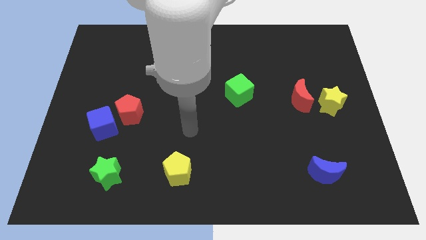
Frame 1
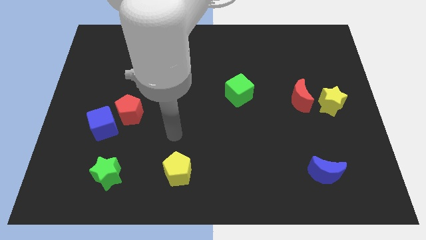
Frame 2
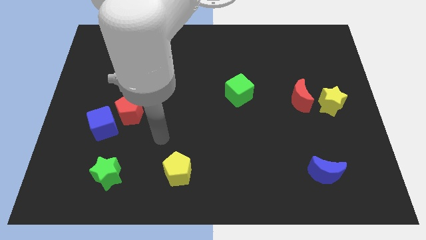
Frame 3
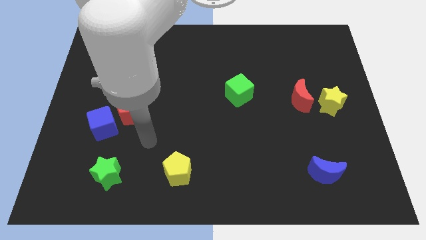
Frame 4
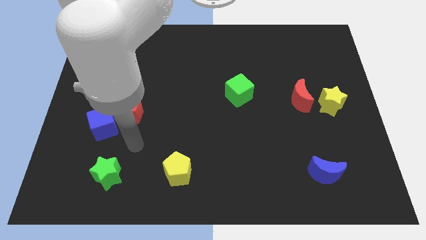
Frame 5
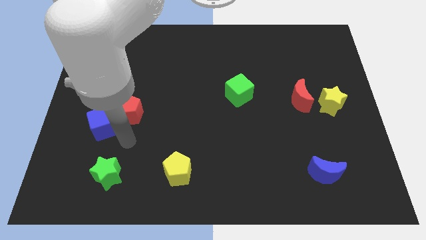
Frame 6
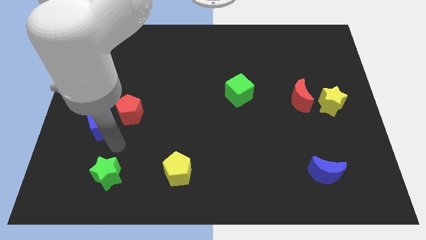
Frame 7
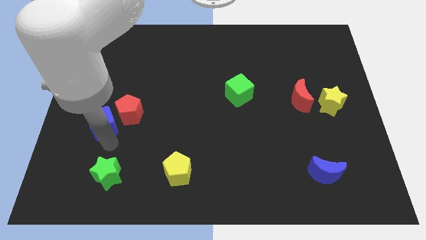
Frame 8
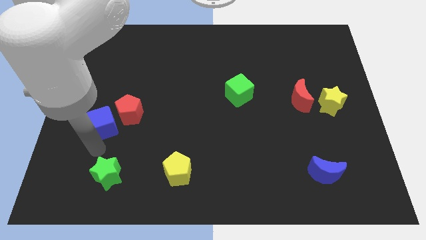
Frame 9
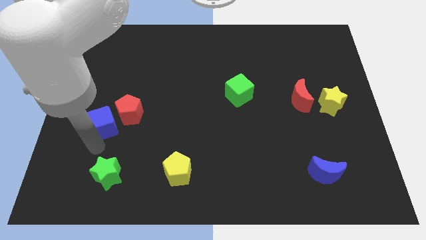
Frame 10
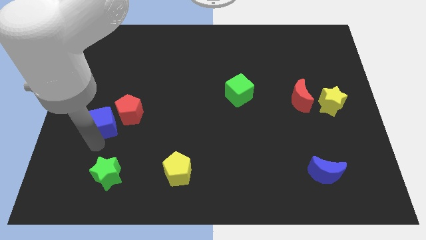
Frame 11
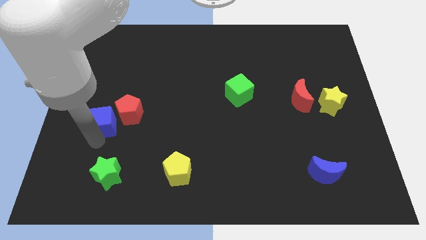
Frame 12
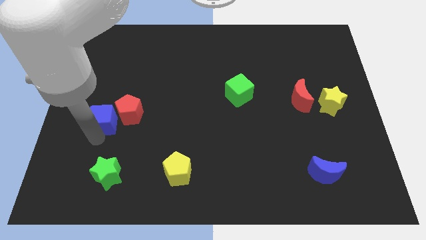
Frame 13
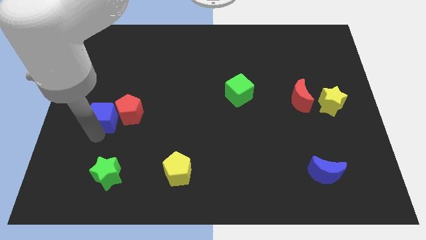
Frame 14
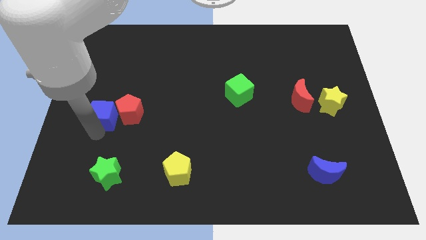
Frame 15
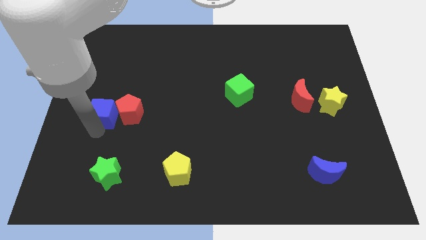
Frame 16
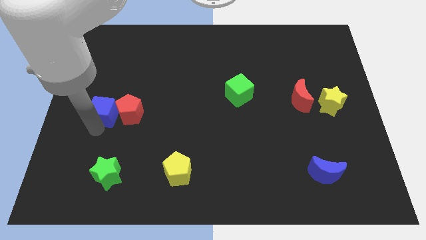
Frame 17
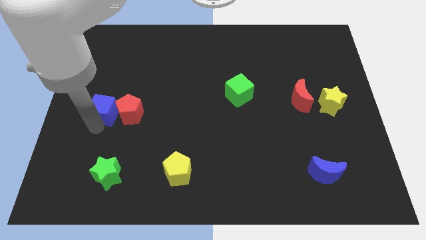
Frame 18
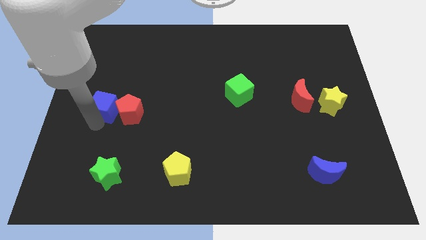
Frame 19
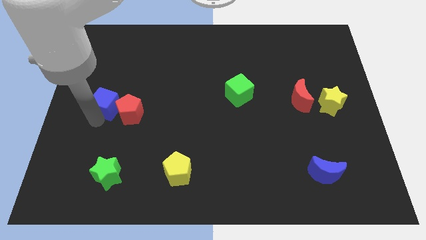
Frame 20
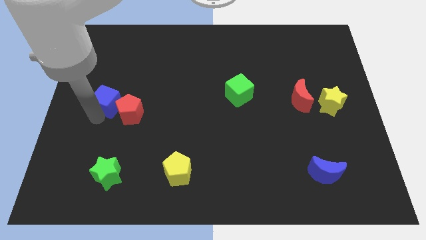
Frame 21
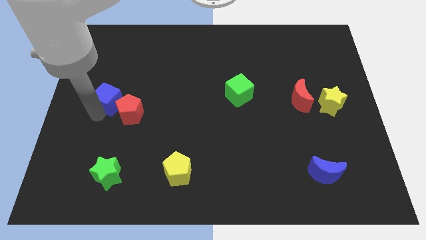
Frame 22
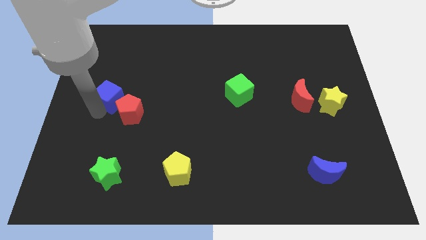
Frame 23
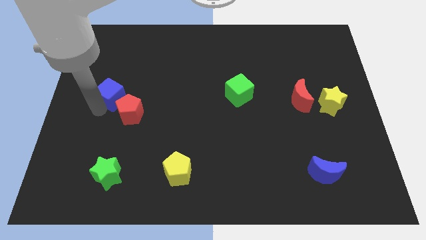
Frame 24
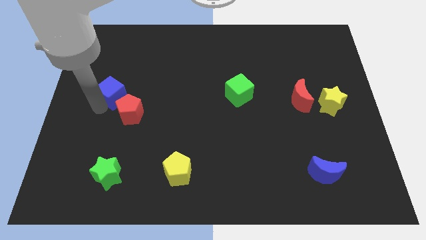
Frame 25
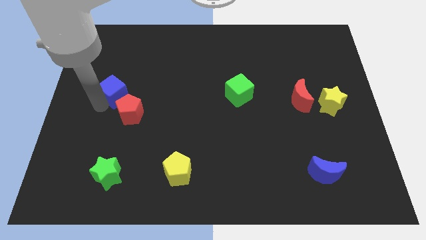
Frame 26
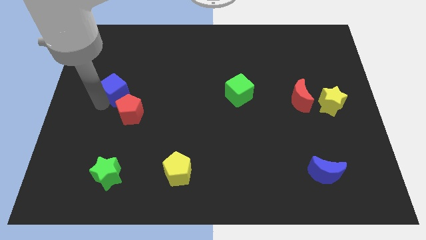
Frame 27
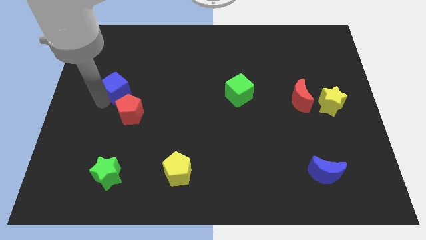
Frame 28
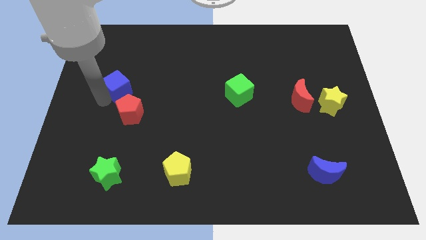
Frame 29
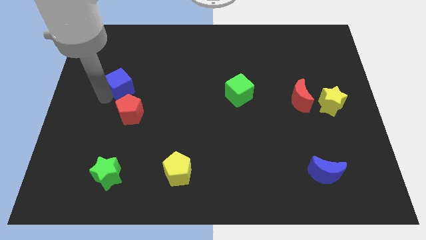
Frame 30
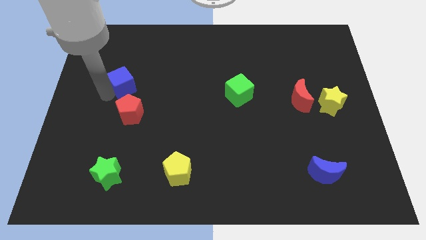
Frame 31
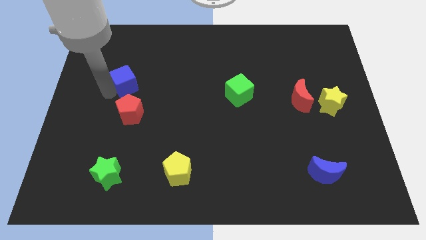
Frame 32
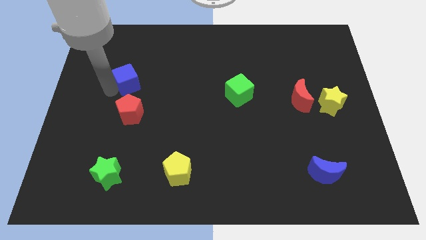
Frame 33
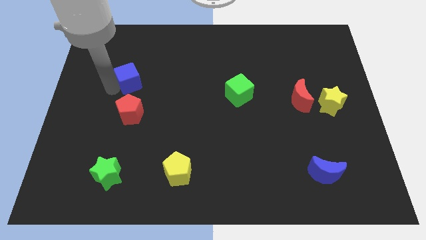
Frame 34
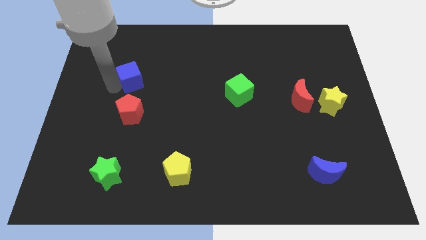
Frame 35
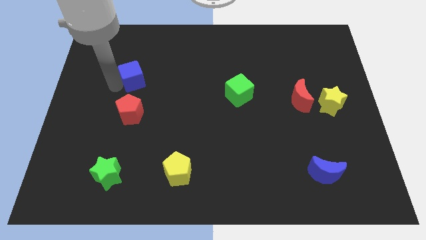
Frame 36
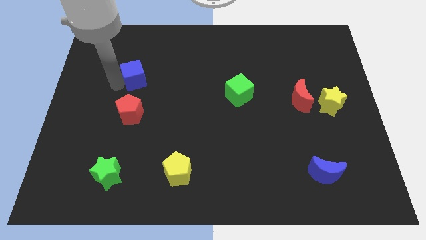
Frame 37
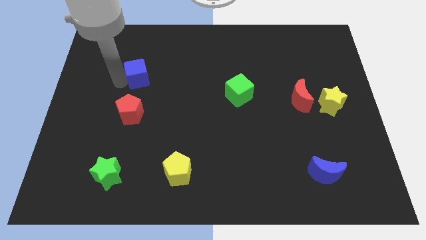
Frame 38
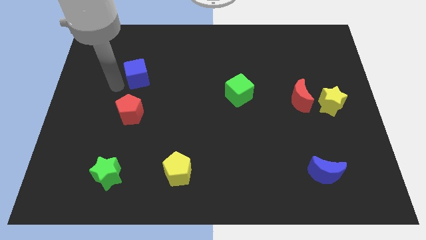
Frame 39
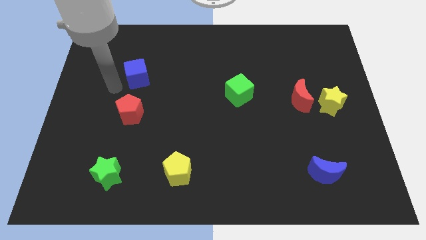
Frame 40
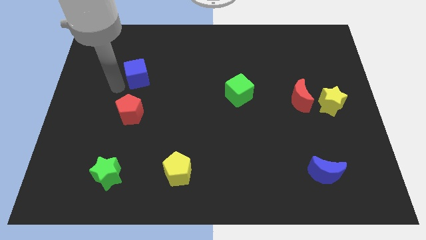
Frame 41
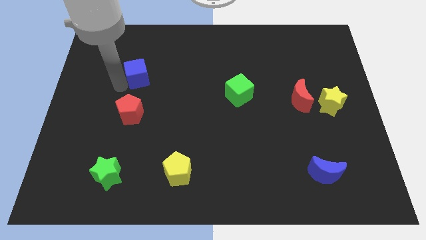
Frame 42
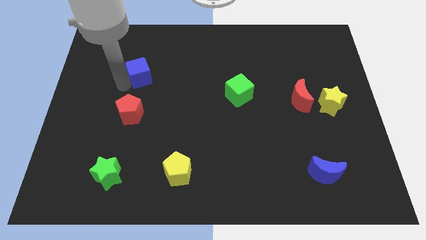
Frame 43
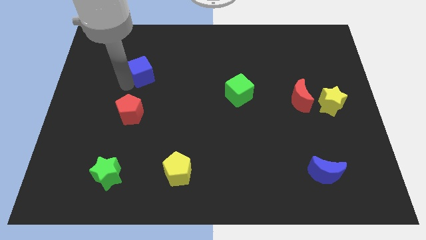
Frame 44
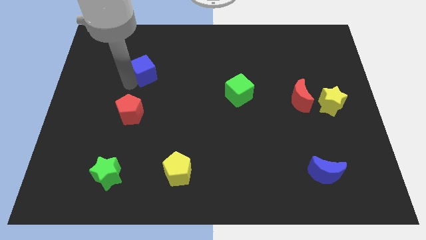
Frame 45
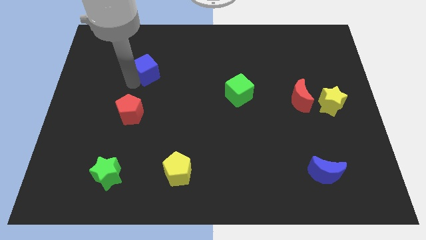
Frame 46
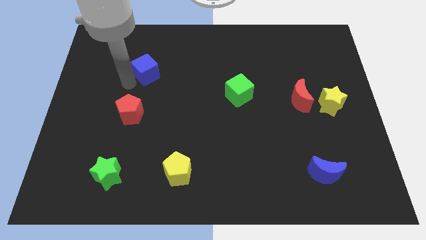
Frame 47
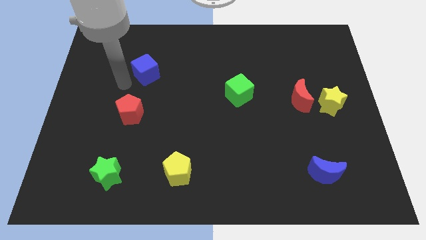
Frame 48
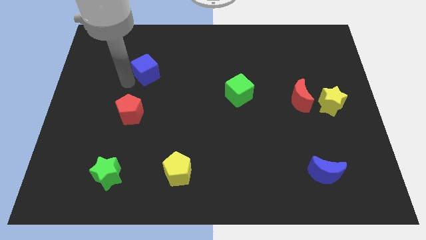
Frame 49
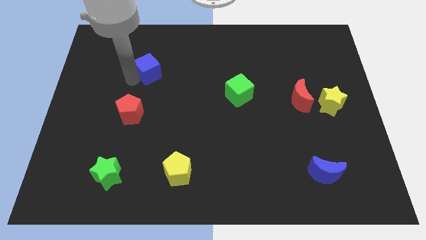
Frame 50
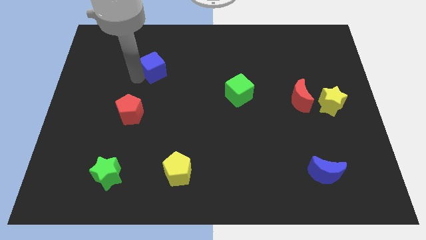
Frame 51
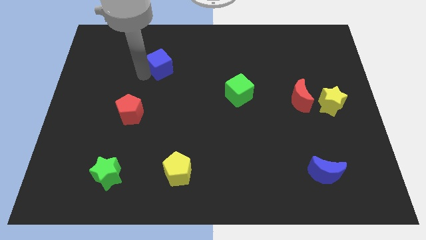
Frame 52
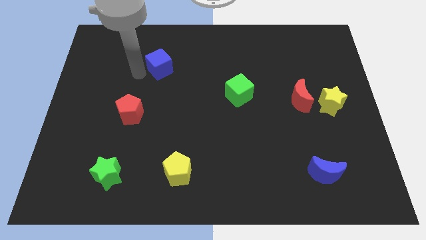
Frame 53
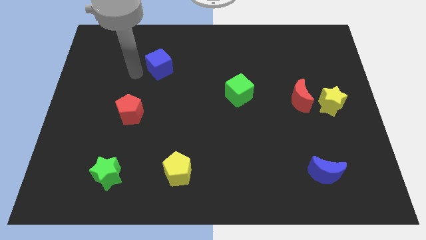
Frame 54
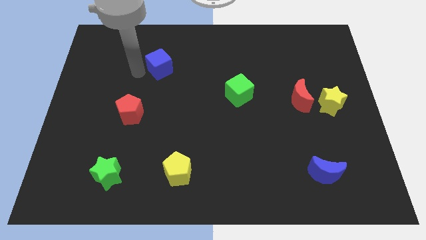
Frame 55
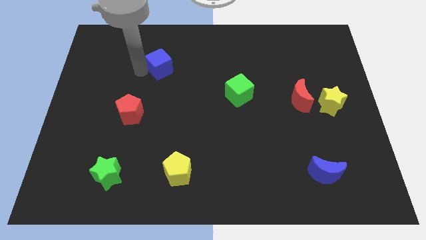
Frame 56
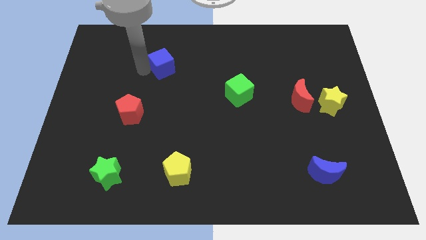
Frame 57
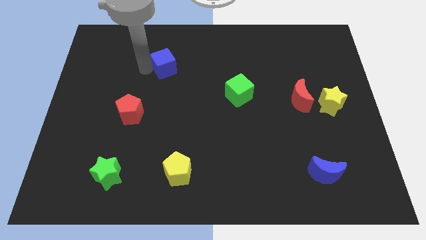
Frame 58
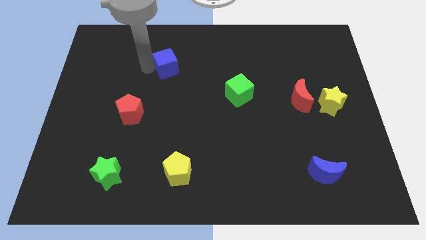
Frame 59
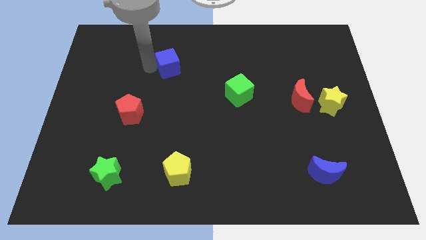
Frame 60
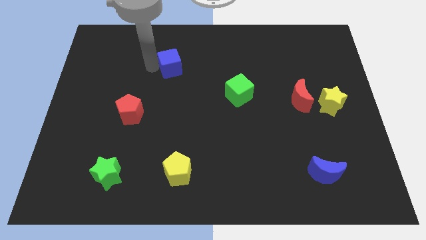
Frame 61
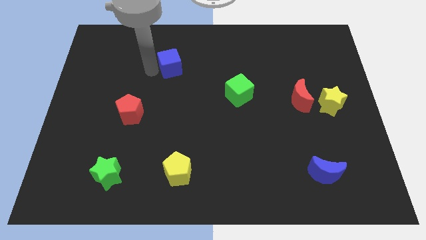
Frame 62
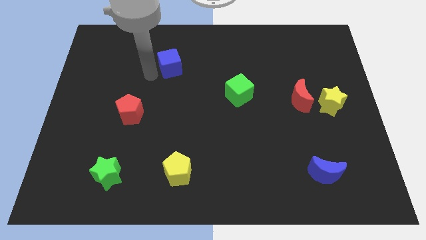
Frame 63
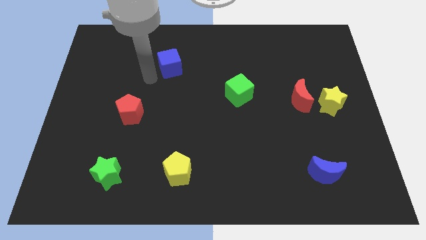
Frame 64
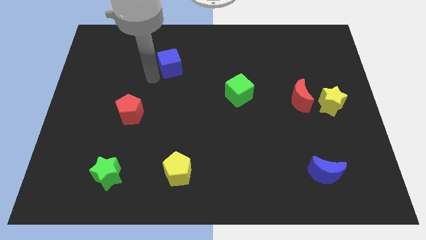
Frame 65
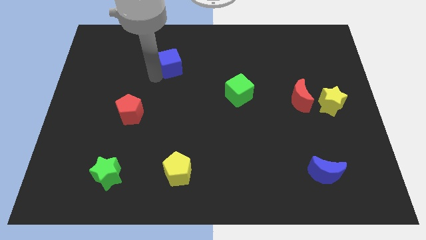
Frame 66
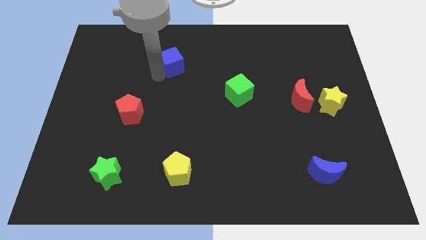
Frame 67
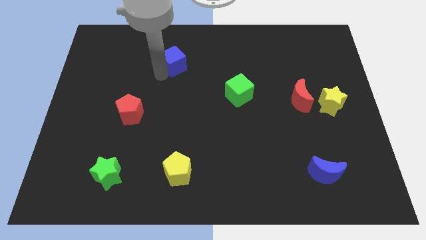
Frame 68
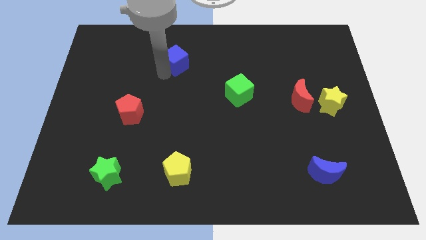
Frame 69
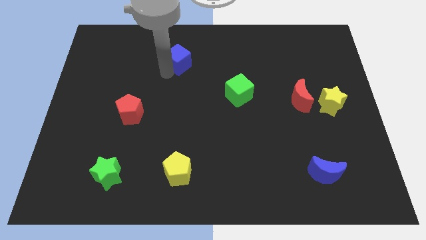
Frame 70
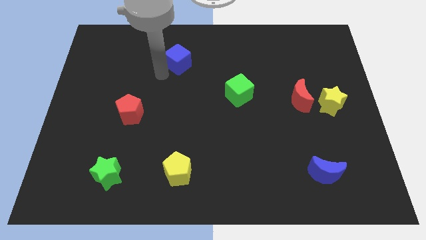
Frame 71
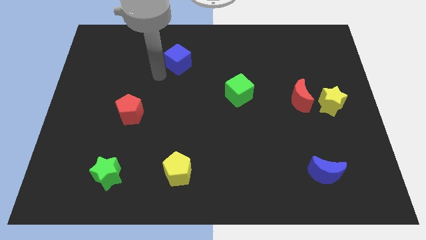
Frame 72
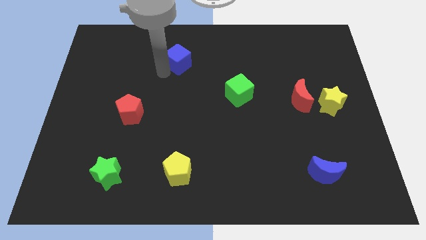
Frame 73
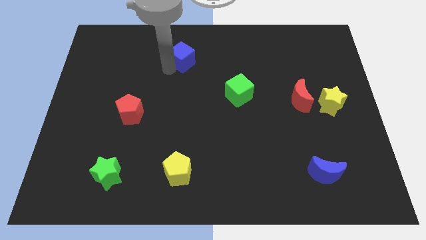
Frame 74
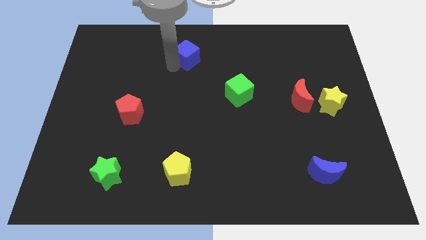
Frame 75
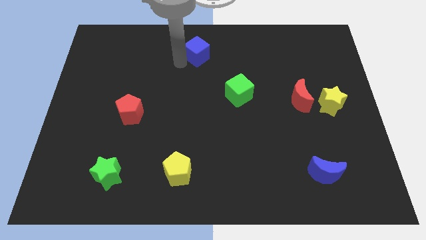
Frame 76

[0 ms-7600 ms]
push the blue cube to the top side
